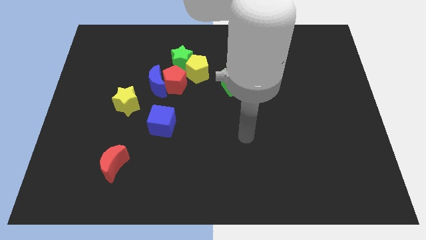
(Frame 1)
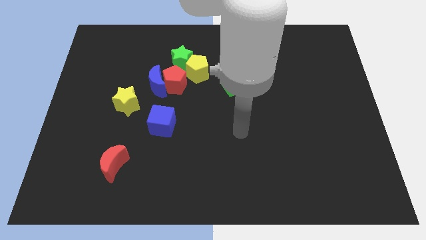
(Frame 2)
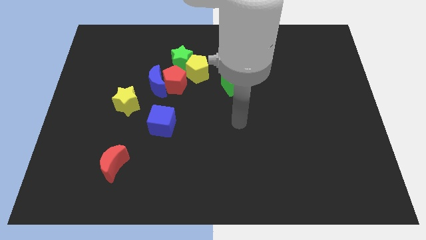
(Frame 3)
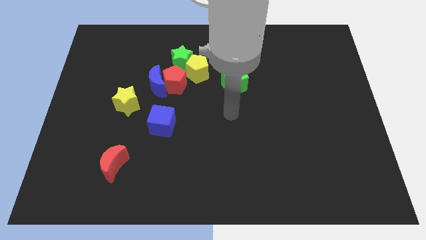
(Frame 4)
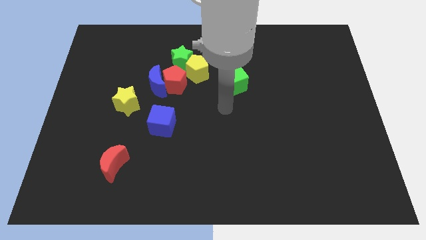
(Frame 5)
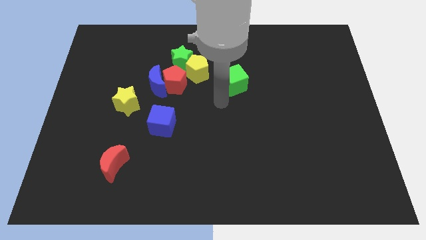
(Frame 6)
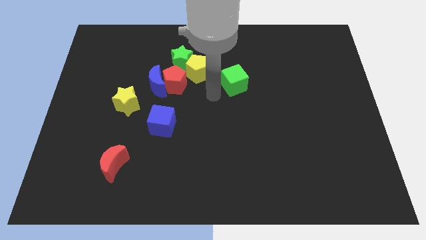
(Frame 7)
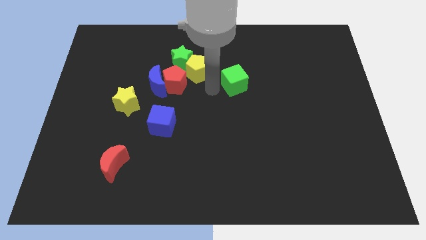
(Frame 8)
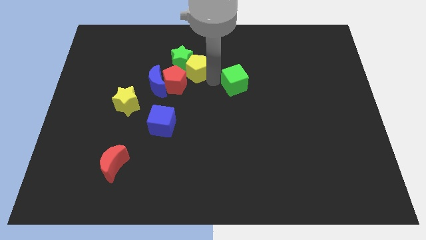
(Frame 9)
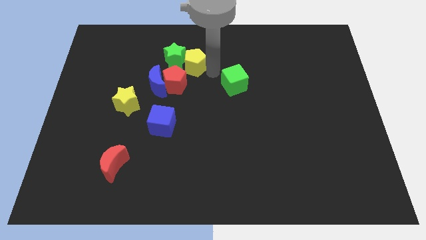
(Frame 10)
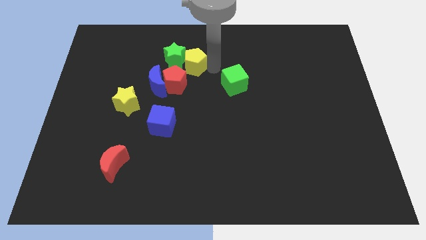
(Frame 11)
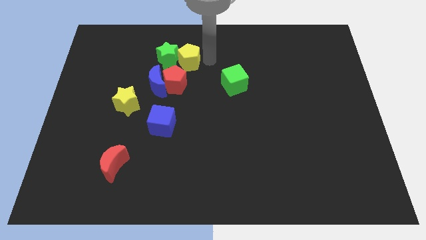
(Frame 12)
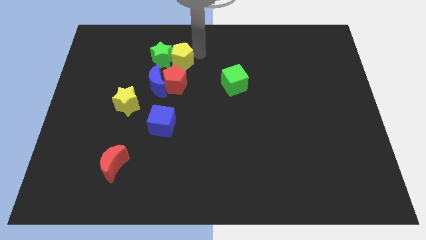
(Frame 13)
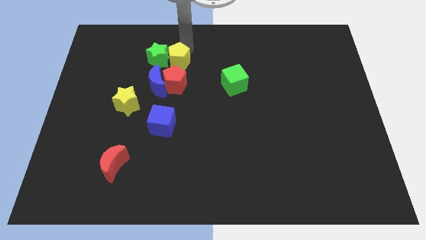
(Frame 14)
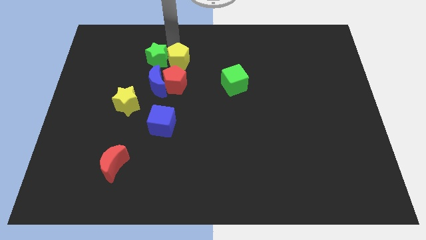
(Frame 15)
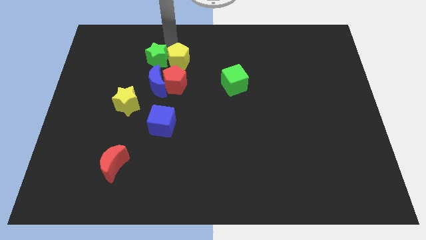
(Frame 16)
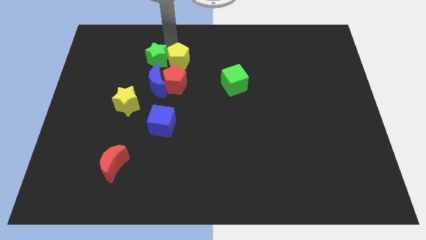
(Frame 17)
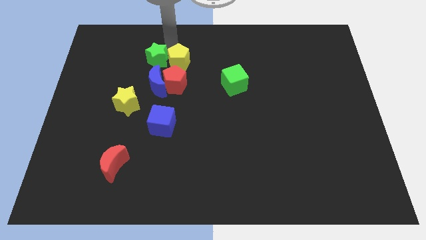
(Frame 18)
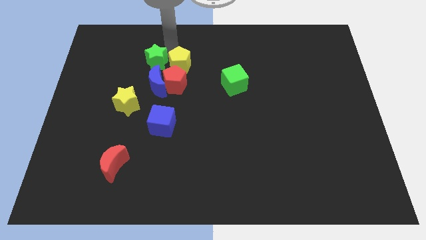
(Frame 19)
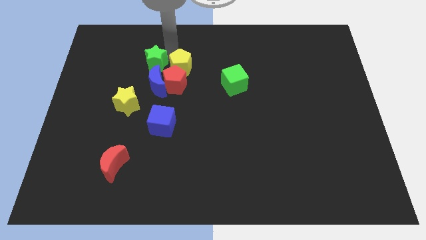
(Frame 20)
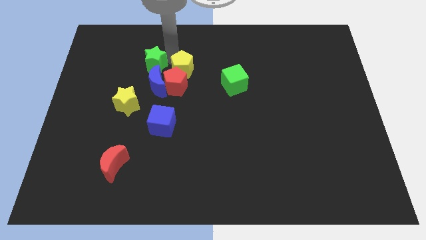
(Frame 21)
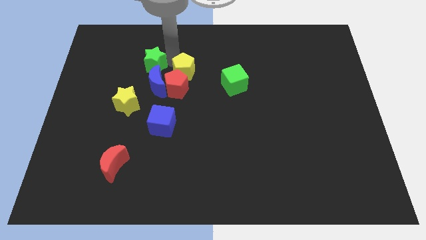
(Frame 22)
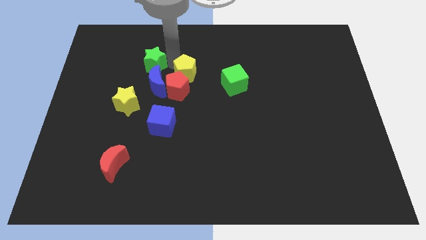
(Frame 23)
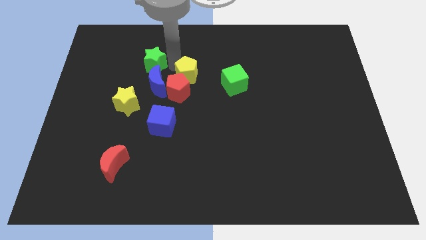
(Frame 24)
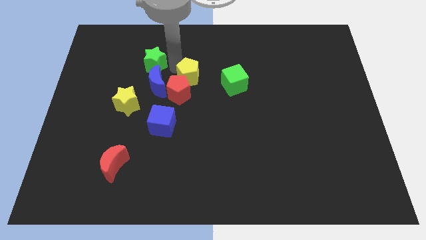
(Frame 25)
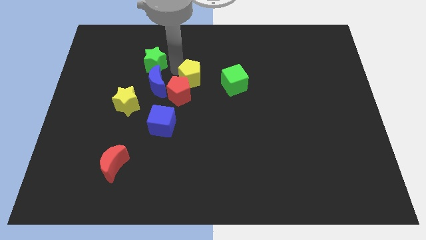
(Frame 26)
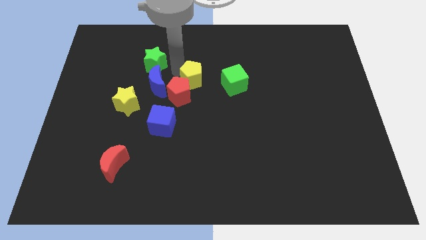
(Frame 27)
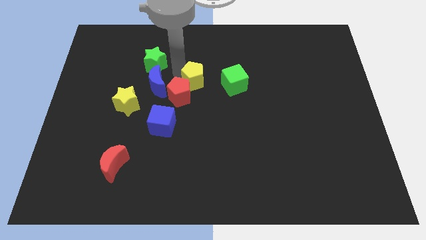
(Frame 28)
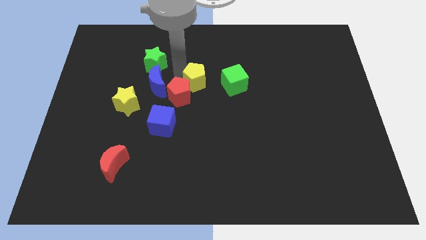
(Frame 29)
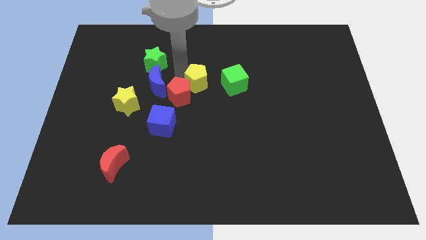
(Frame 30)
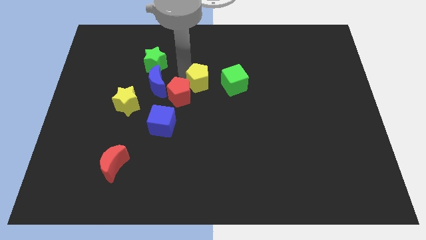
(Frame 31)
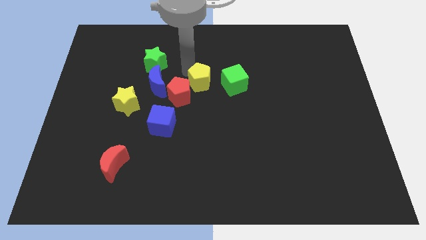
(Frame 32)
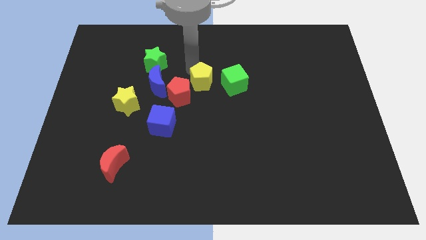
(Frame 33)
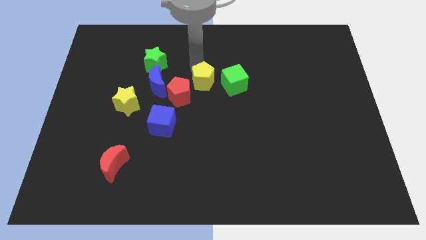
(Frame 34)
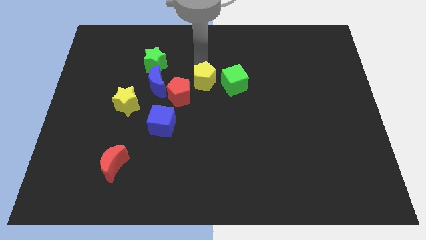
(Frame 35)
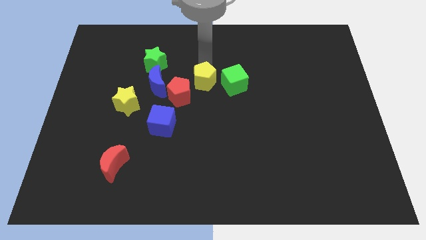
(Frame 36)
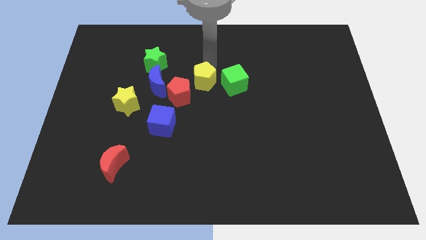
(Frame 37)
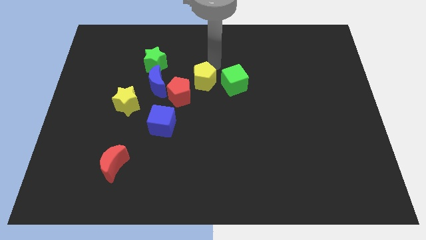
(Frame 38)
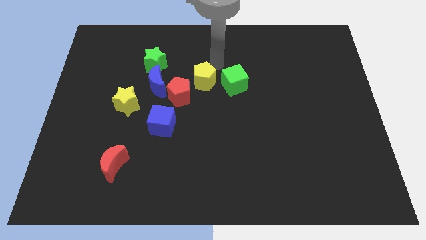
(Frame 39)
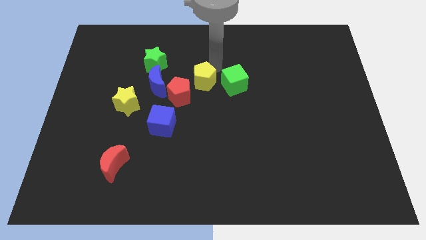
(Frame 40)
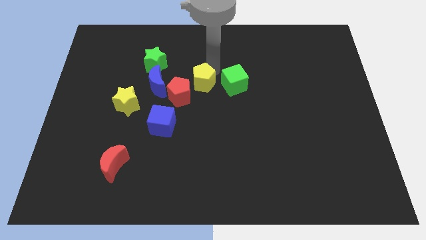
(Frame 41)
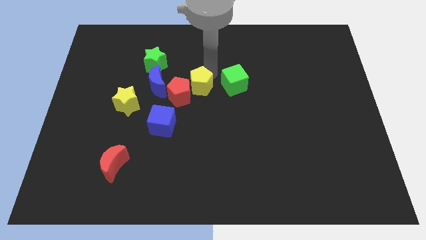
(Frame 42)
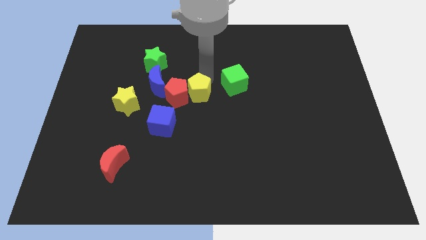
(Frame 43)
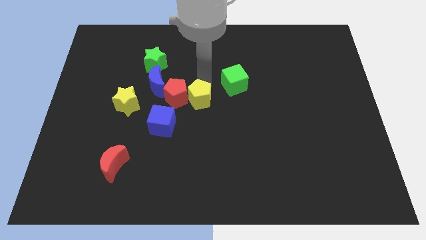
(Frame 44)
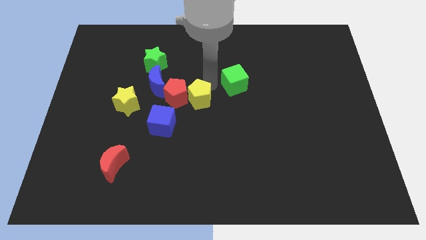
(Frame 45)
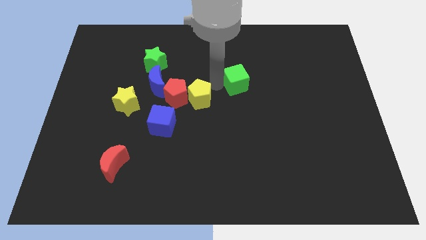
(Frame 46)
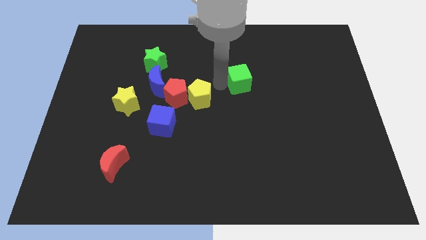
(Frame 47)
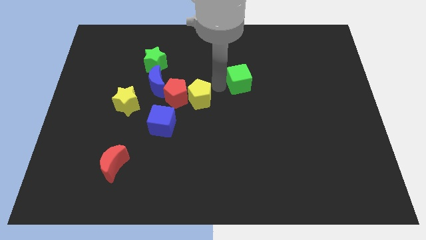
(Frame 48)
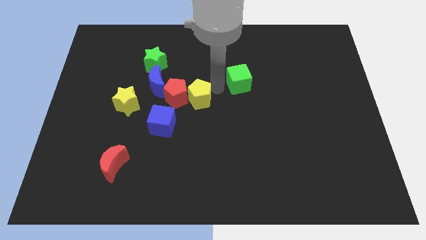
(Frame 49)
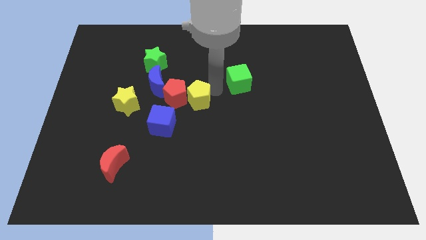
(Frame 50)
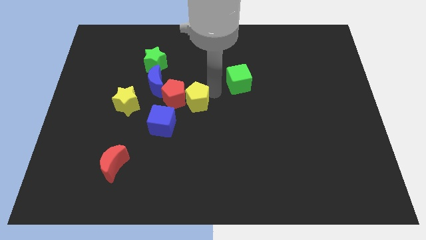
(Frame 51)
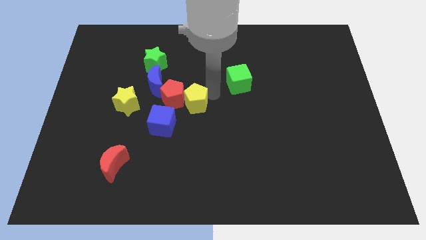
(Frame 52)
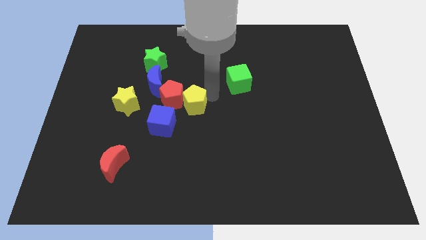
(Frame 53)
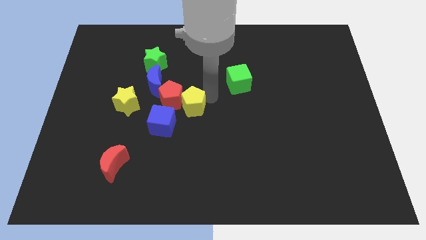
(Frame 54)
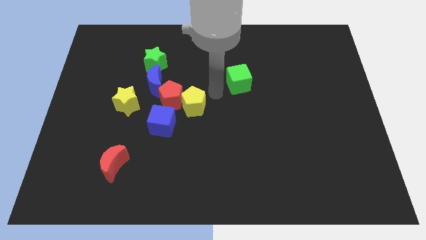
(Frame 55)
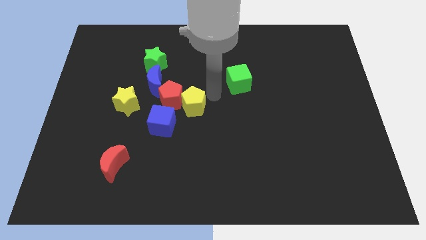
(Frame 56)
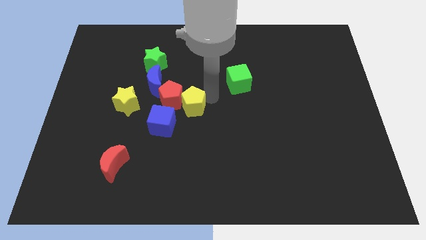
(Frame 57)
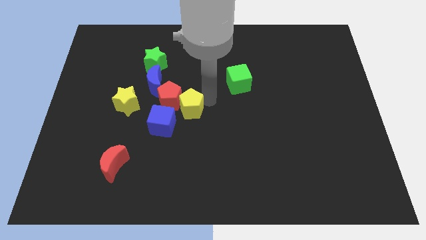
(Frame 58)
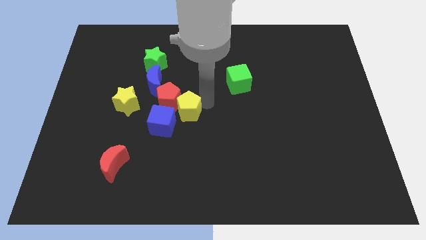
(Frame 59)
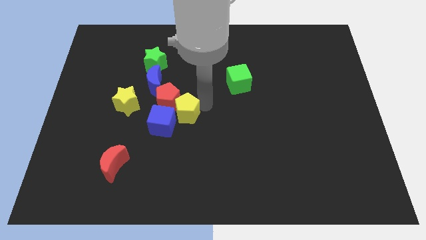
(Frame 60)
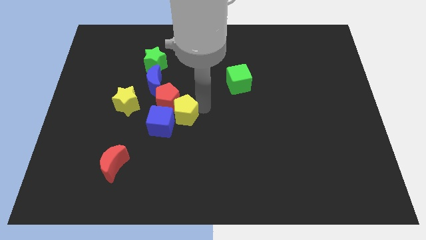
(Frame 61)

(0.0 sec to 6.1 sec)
move the yellow pentagon to the blue cube

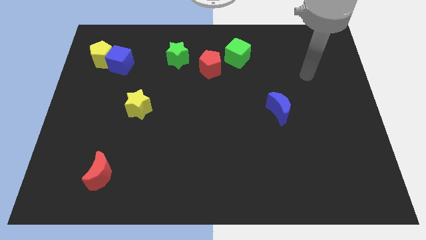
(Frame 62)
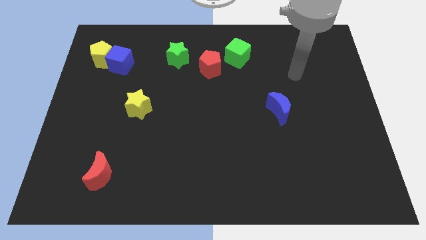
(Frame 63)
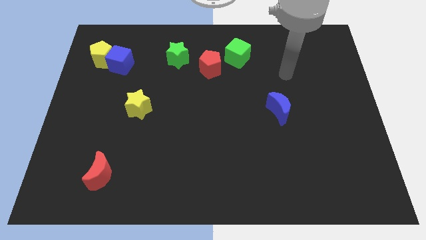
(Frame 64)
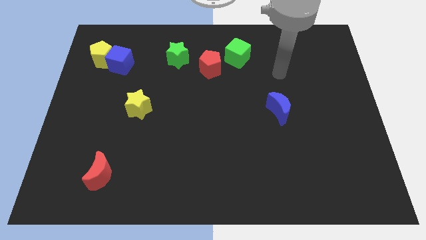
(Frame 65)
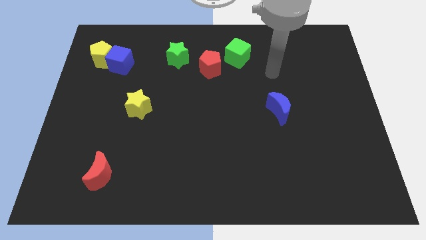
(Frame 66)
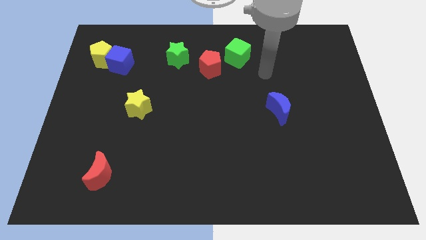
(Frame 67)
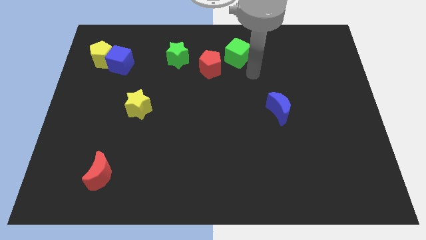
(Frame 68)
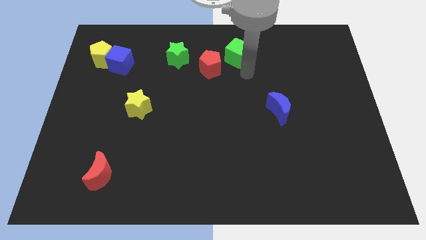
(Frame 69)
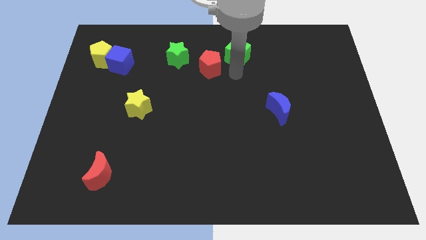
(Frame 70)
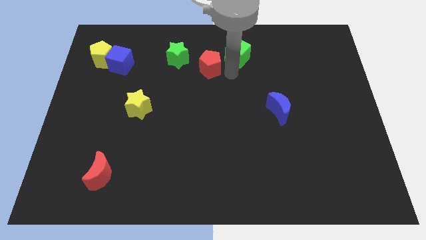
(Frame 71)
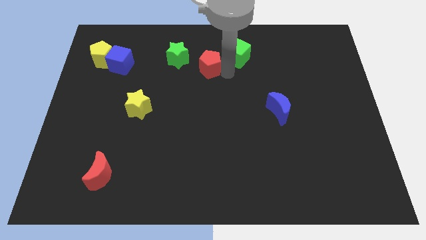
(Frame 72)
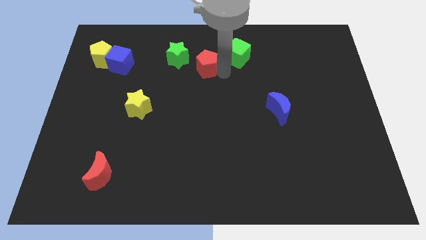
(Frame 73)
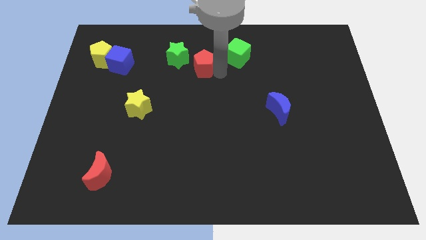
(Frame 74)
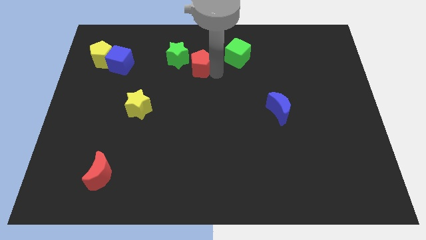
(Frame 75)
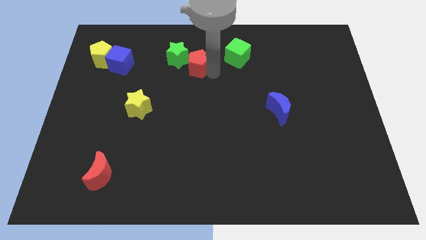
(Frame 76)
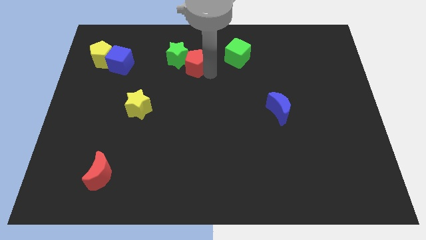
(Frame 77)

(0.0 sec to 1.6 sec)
move the red pentagon next to the green star
